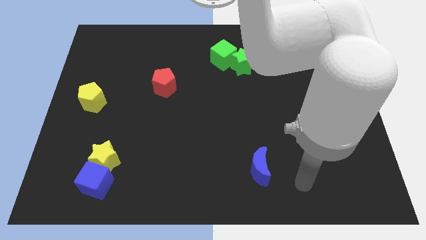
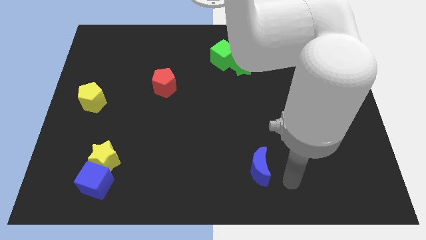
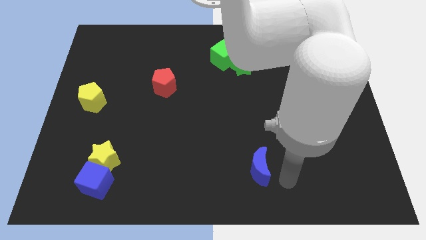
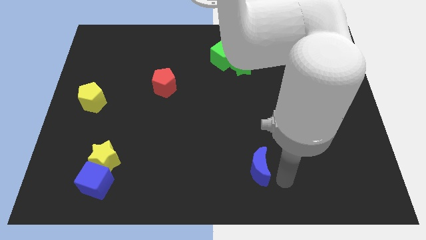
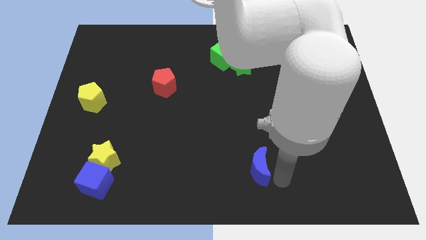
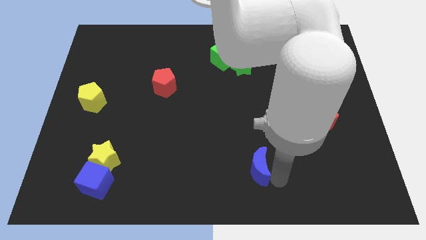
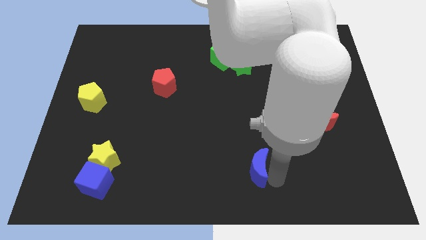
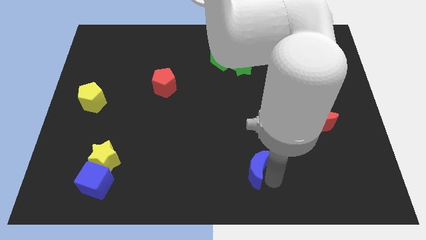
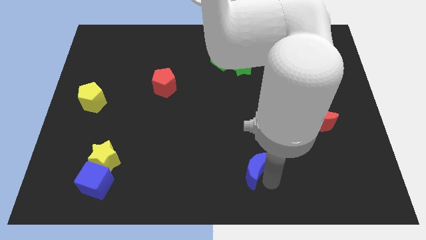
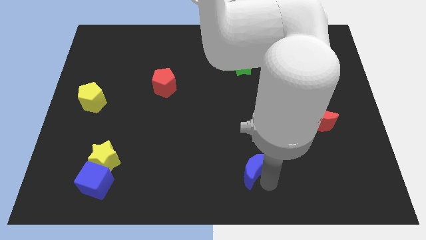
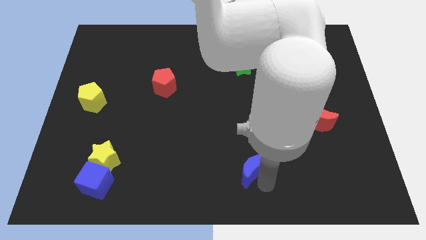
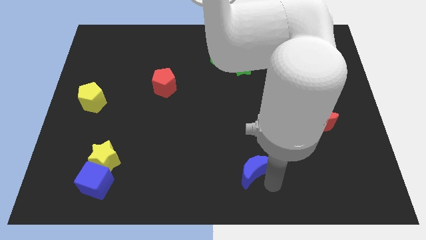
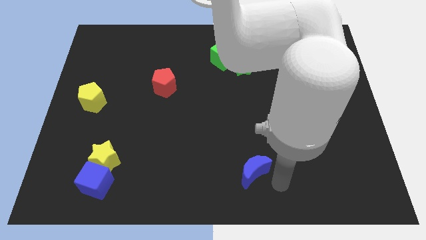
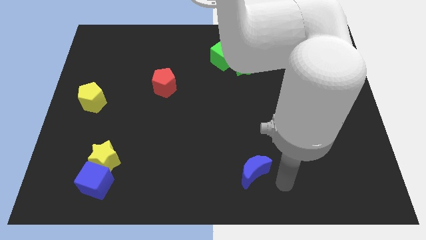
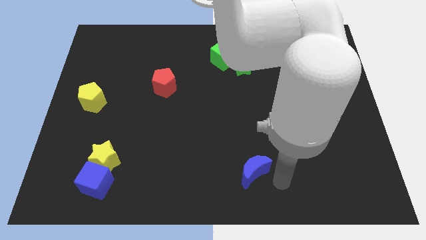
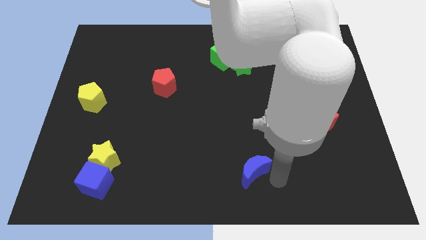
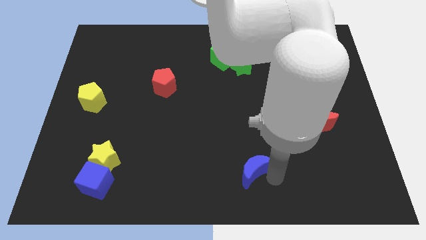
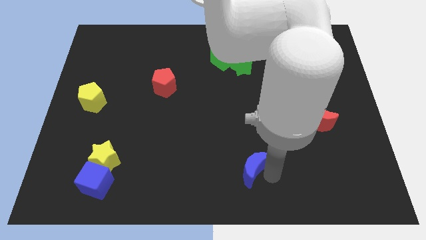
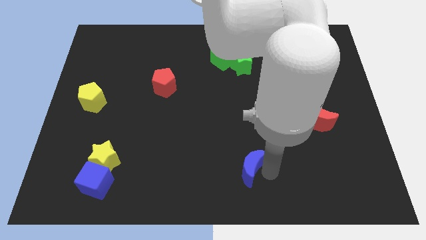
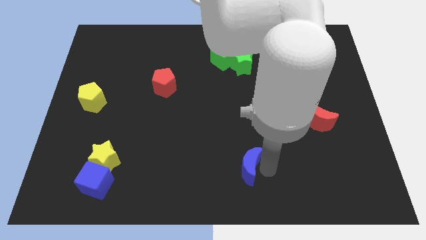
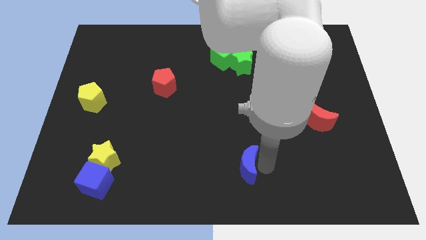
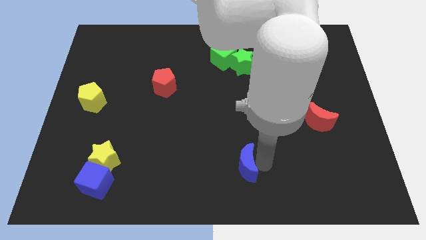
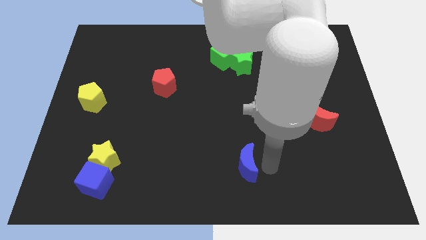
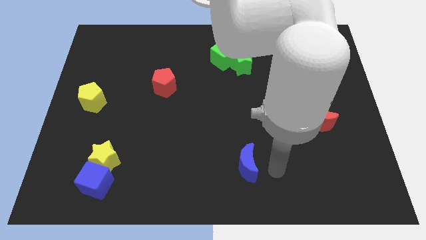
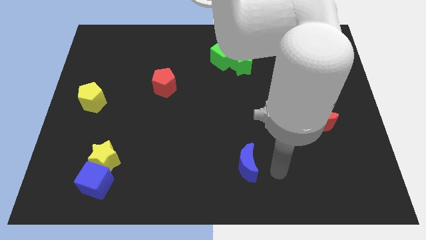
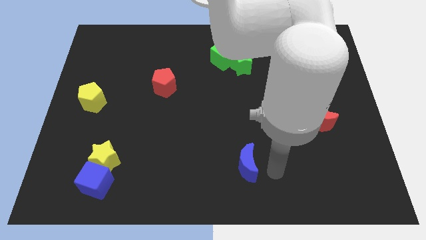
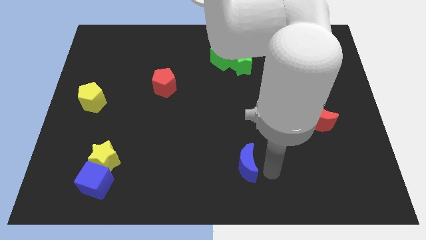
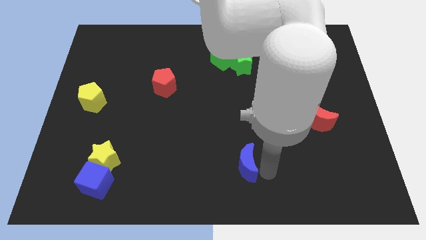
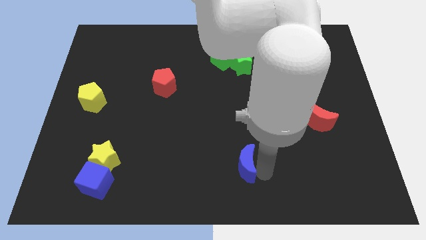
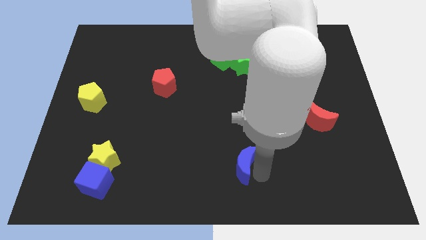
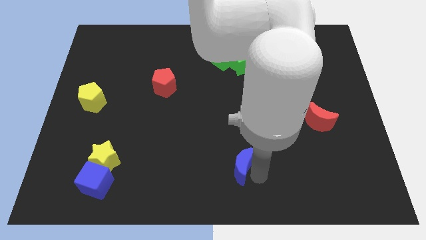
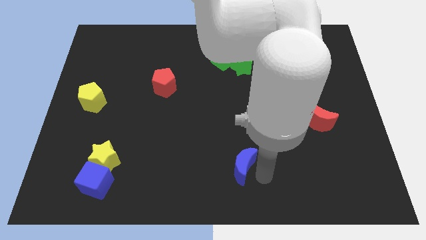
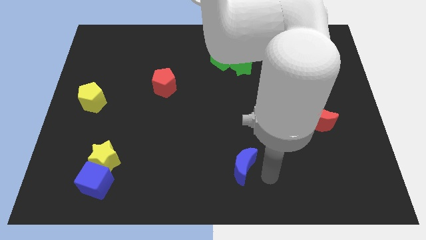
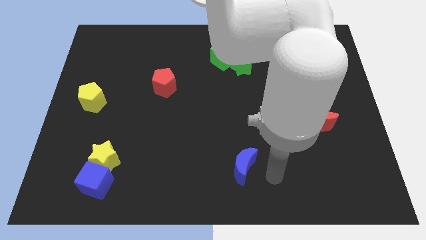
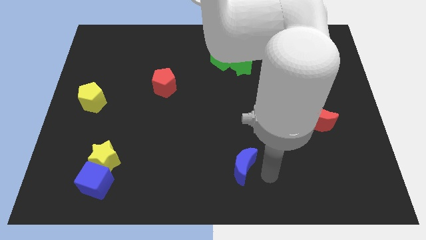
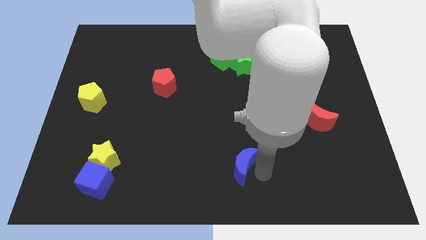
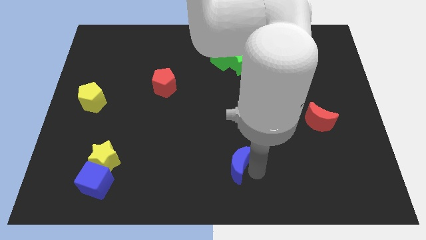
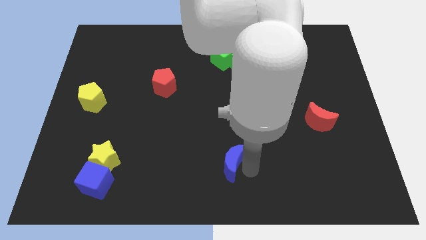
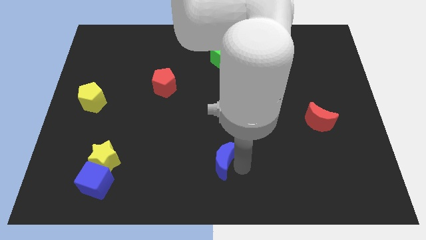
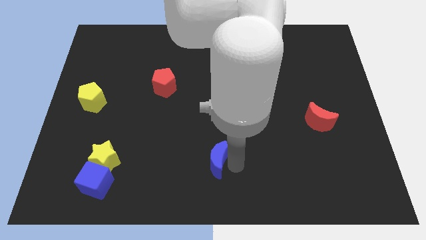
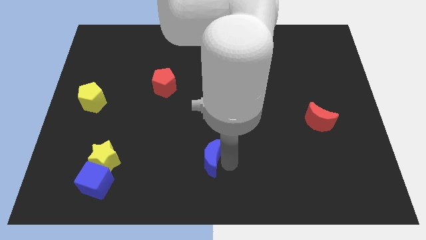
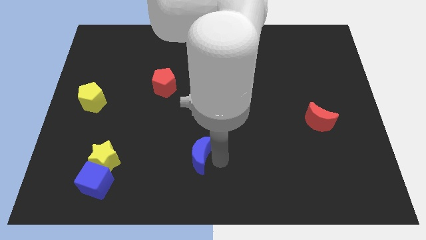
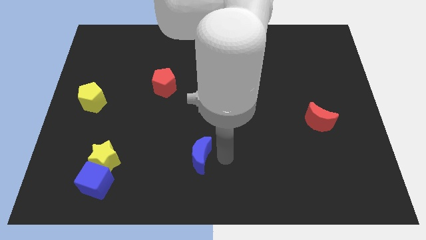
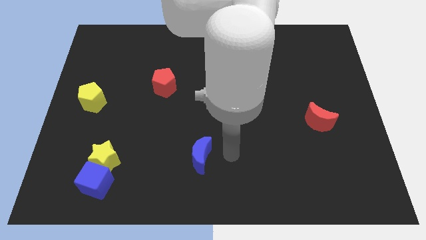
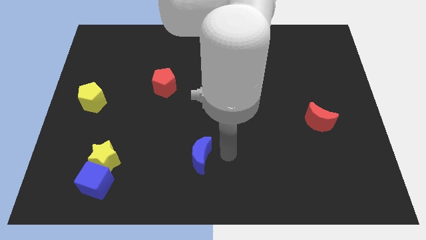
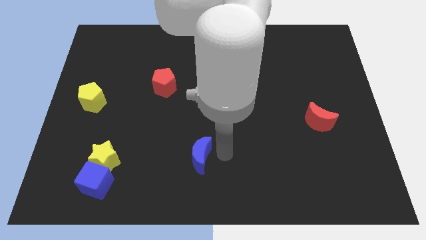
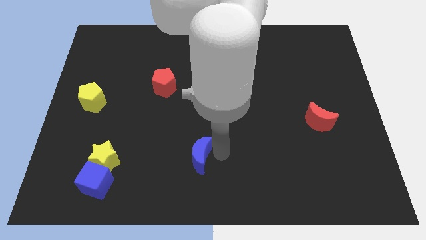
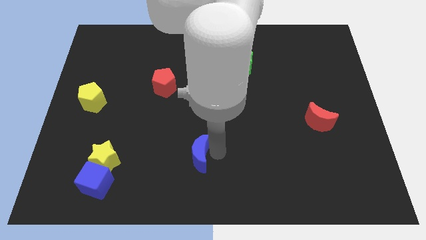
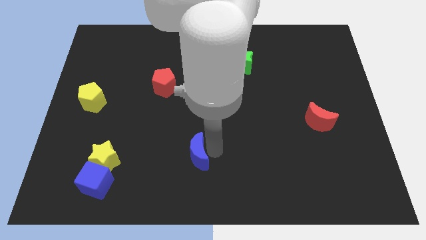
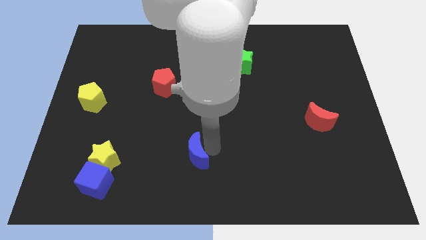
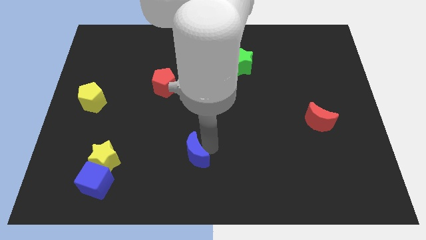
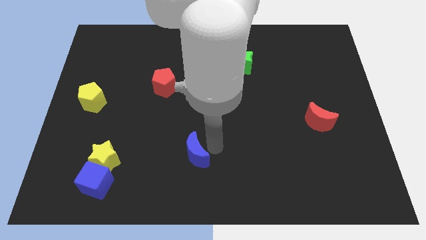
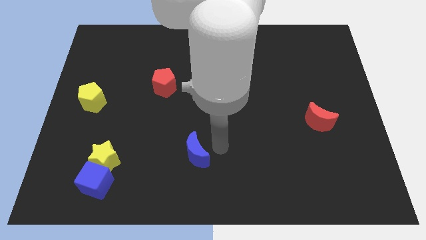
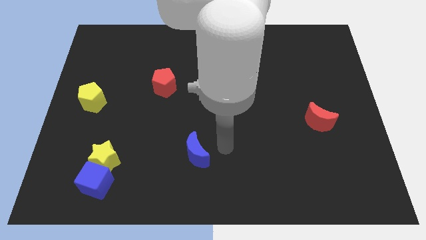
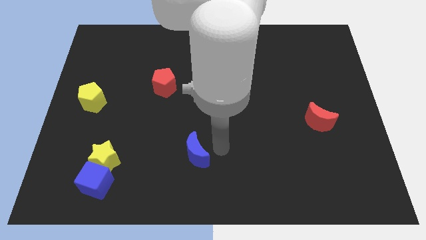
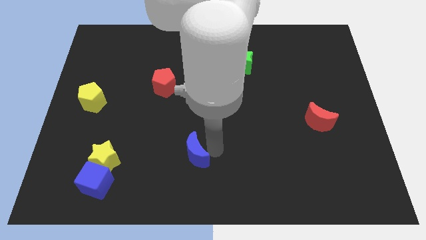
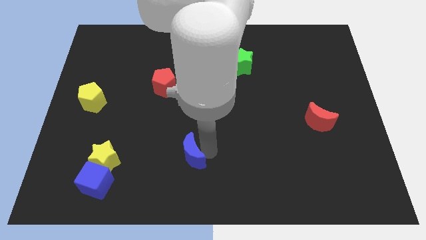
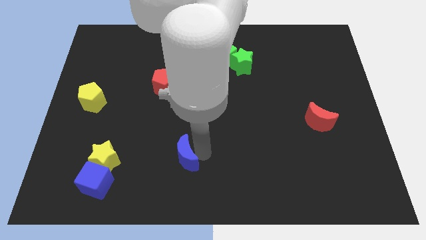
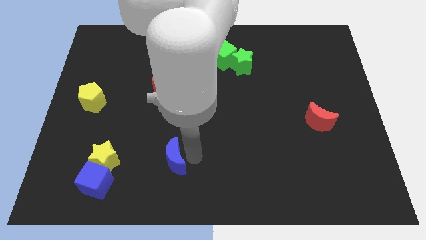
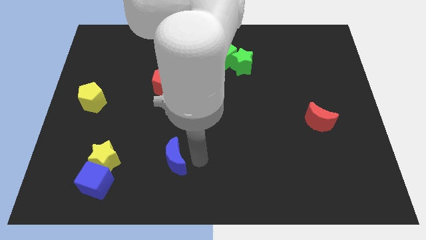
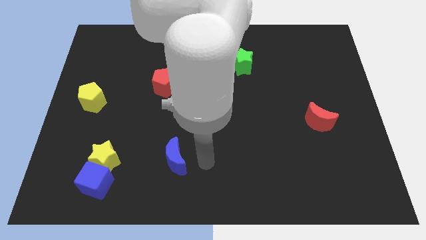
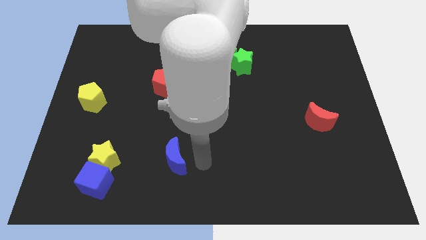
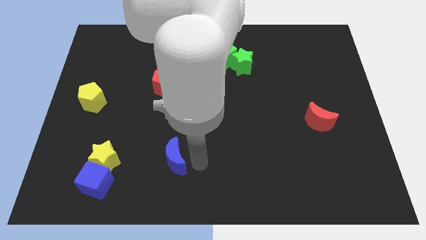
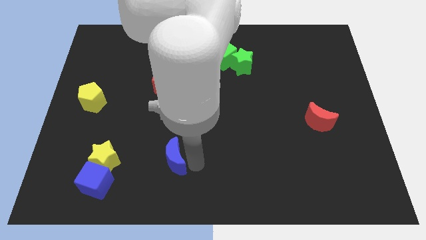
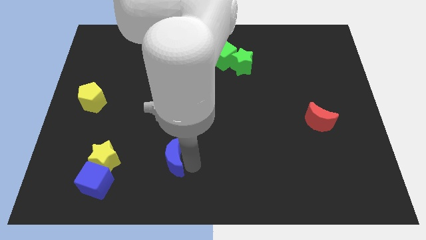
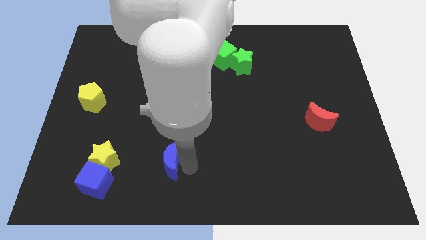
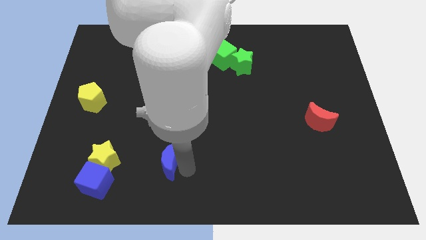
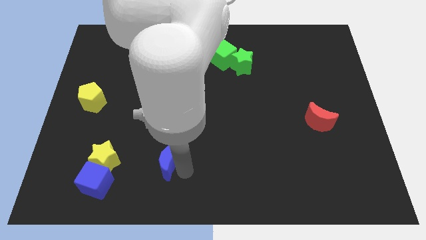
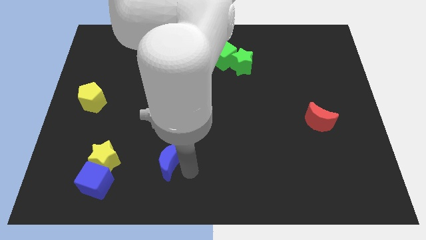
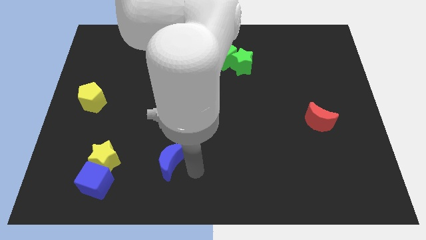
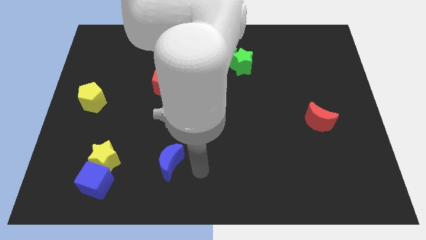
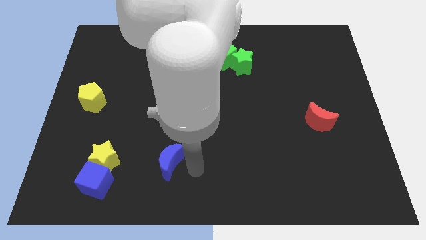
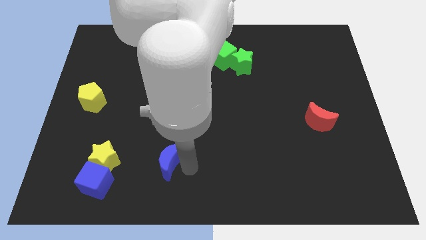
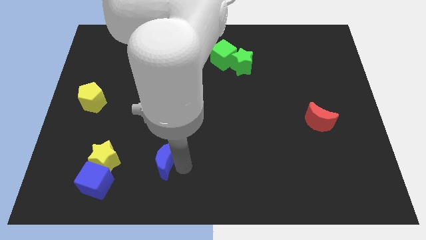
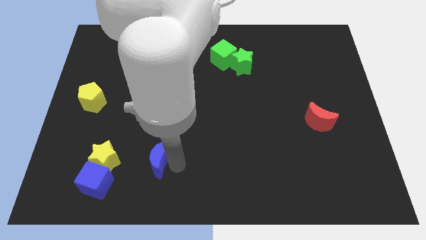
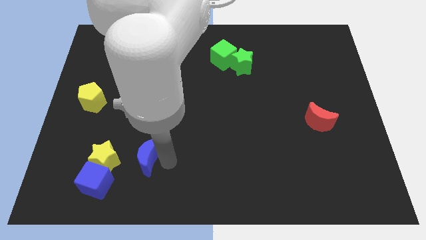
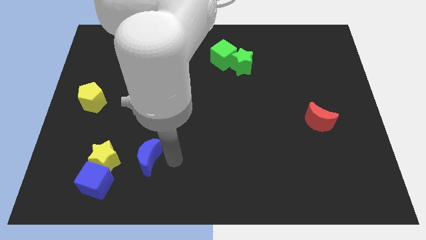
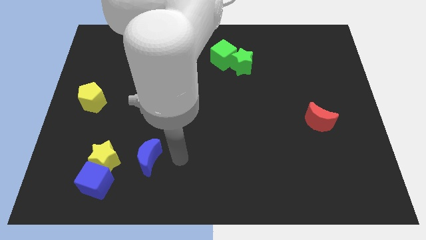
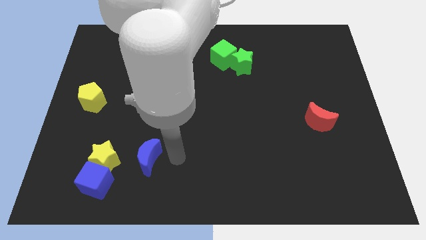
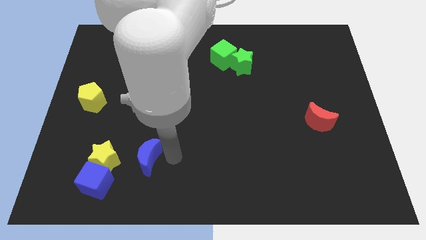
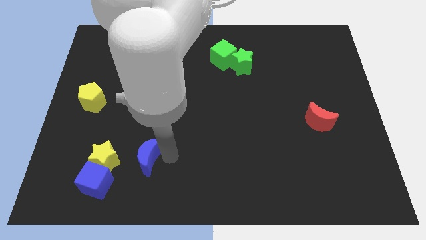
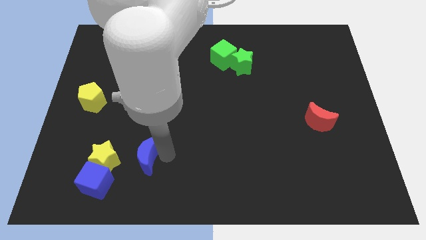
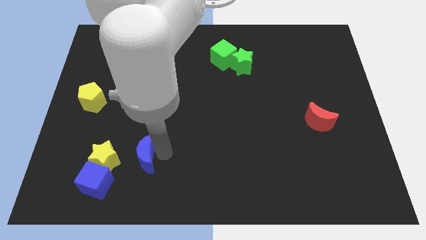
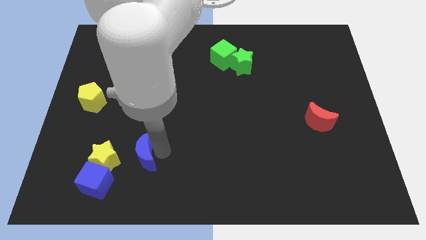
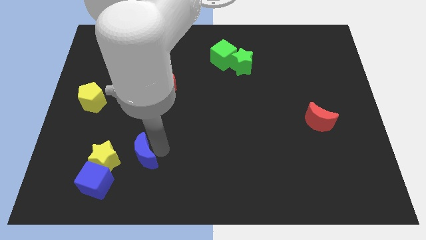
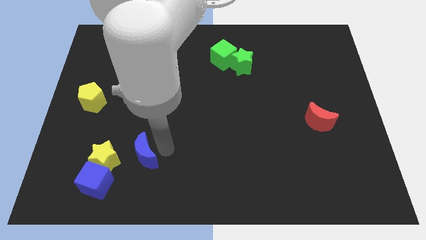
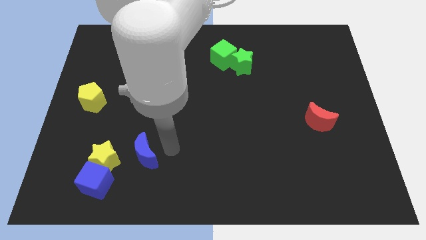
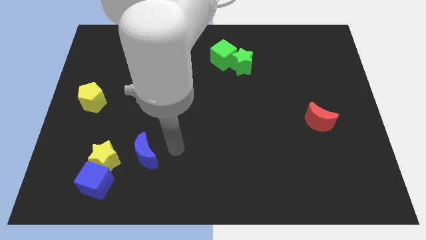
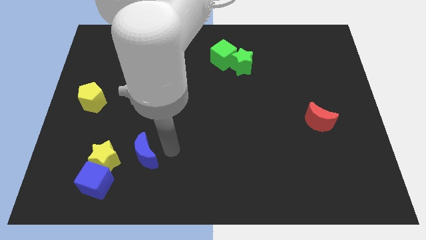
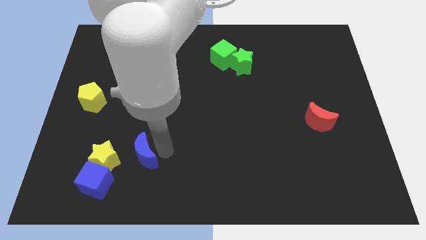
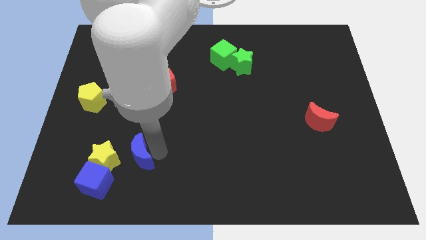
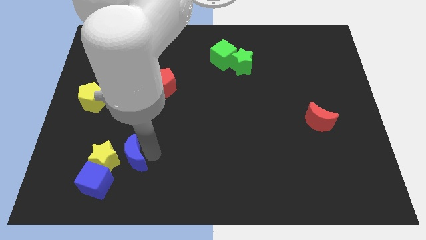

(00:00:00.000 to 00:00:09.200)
put the blue moon towards the yellow star
